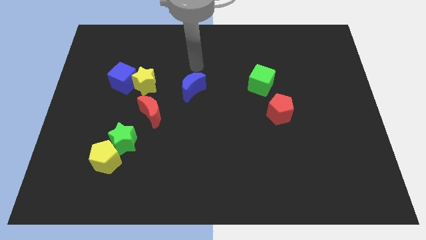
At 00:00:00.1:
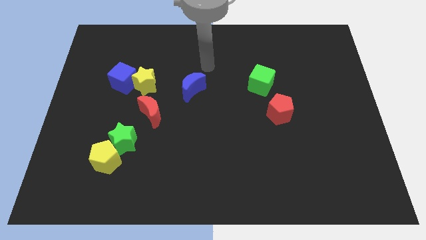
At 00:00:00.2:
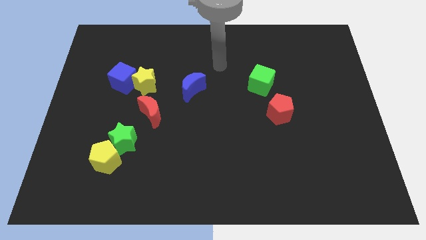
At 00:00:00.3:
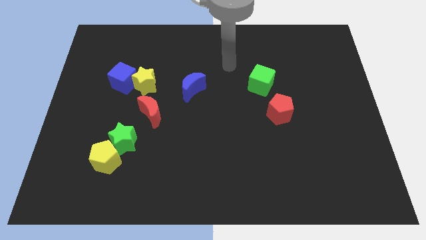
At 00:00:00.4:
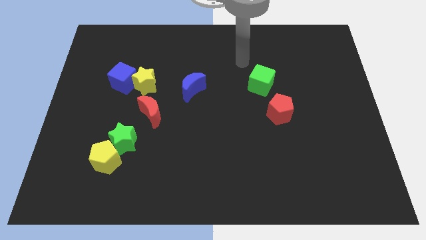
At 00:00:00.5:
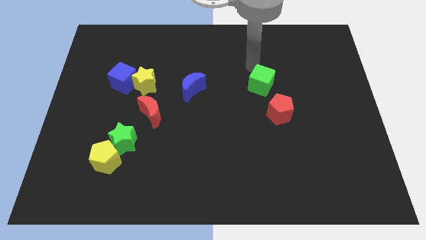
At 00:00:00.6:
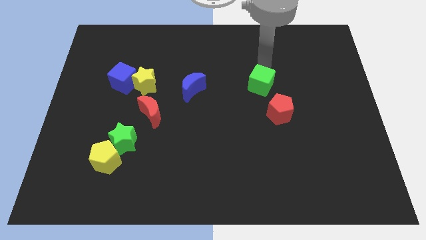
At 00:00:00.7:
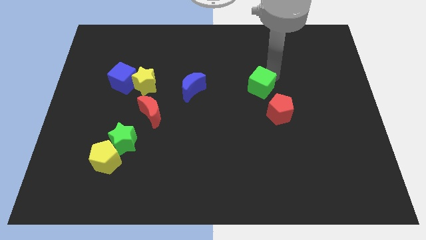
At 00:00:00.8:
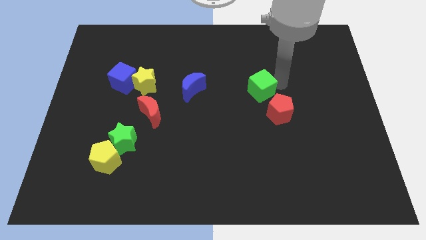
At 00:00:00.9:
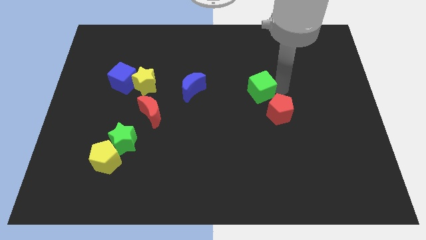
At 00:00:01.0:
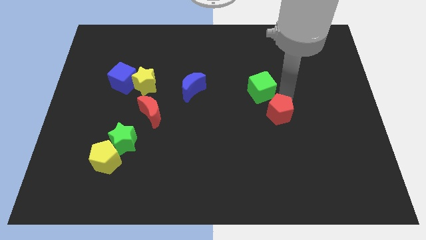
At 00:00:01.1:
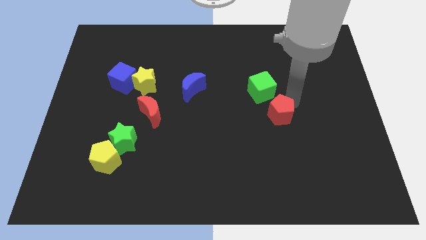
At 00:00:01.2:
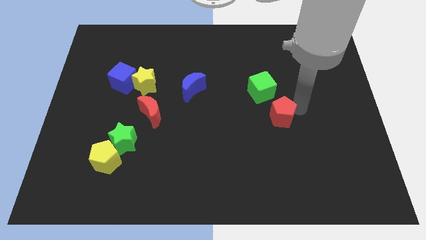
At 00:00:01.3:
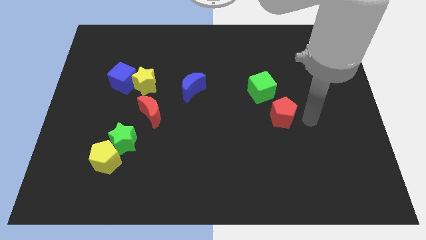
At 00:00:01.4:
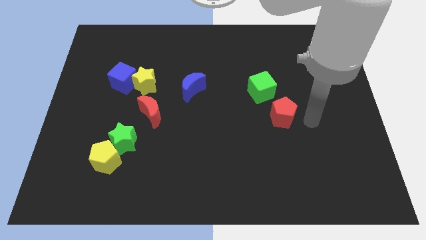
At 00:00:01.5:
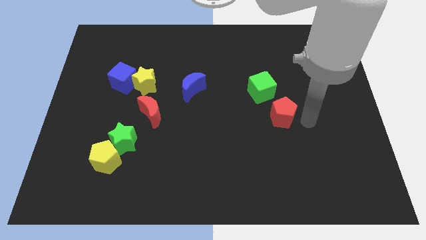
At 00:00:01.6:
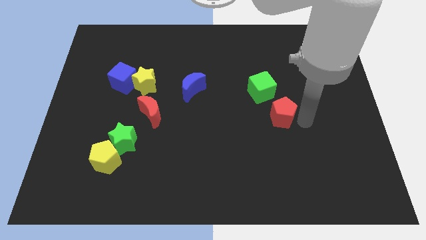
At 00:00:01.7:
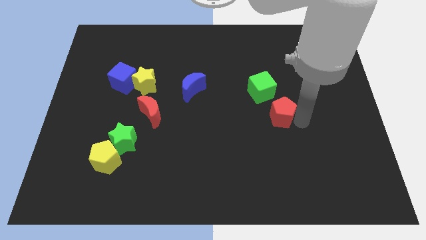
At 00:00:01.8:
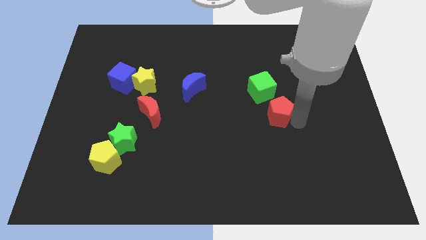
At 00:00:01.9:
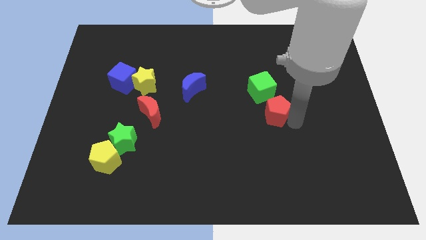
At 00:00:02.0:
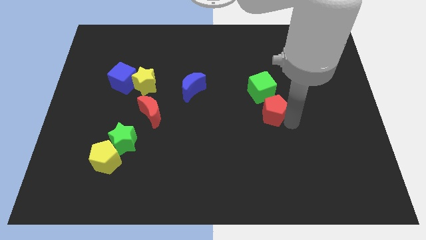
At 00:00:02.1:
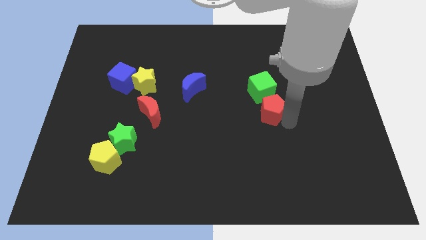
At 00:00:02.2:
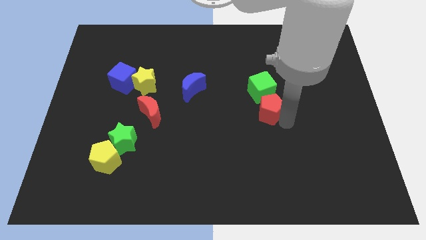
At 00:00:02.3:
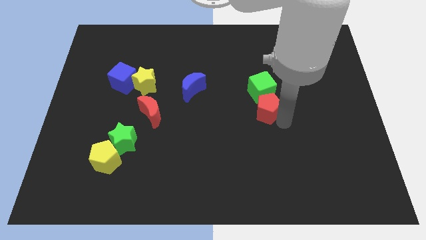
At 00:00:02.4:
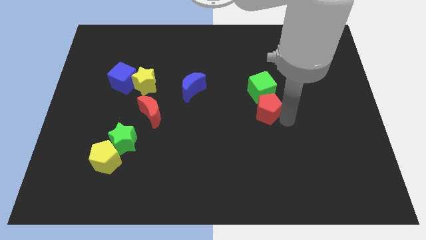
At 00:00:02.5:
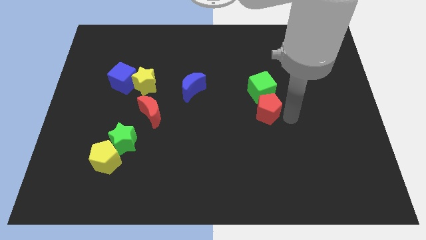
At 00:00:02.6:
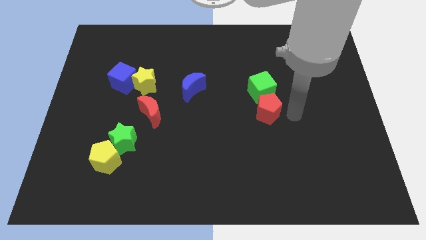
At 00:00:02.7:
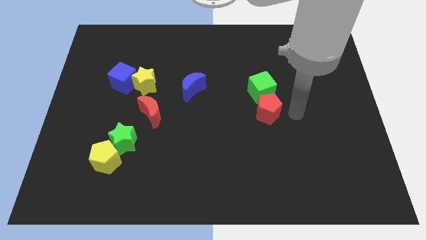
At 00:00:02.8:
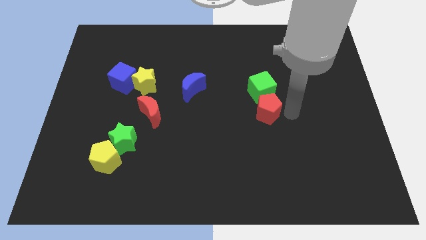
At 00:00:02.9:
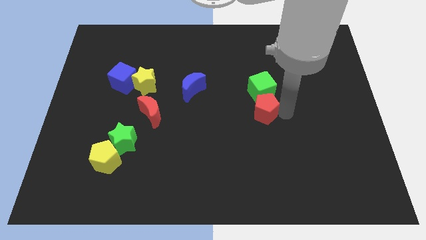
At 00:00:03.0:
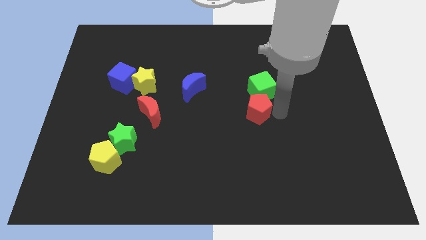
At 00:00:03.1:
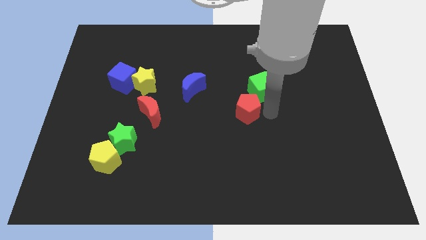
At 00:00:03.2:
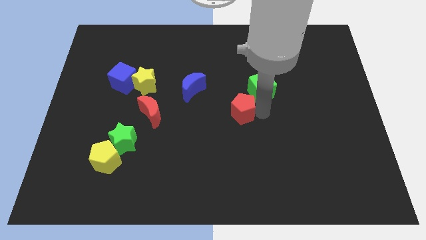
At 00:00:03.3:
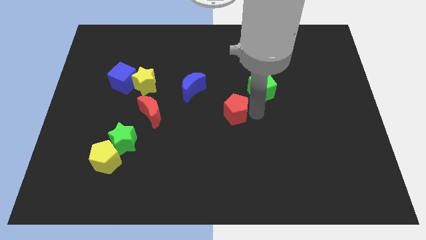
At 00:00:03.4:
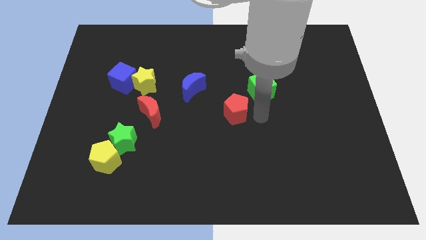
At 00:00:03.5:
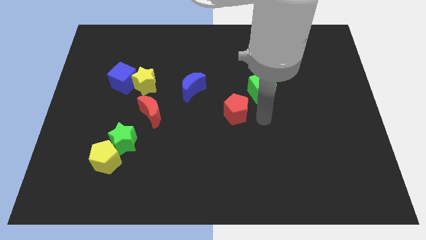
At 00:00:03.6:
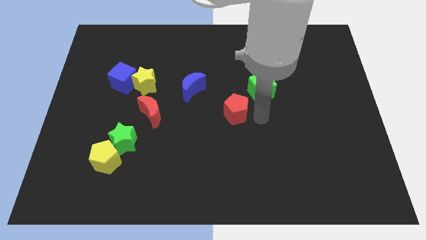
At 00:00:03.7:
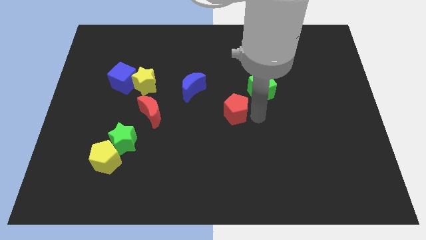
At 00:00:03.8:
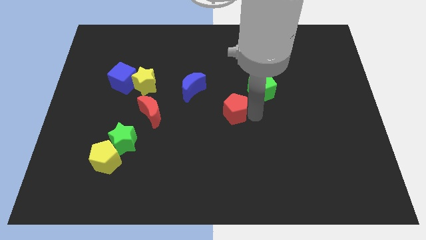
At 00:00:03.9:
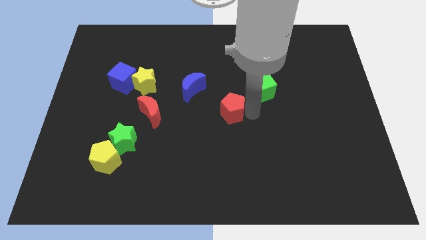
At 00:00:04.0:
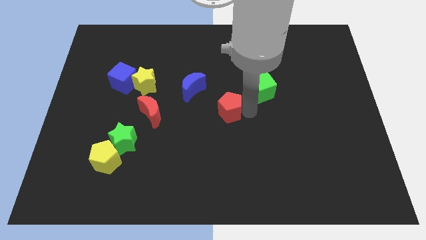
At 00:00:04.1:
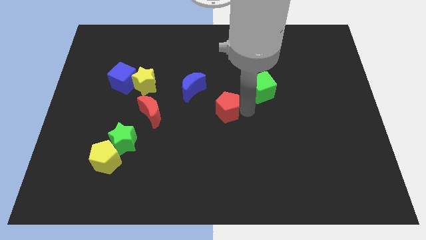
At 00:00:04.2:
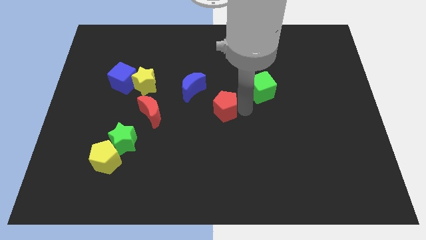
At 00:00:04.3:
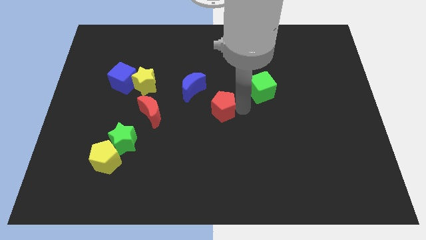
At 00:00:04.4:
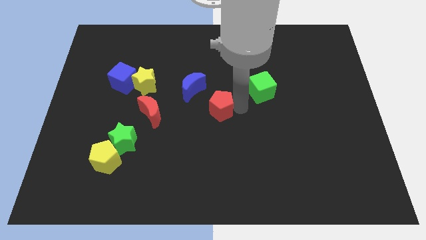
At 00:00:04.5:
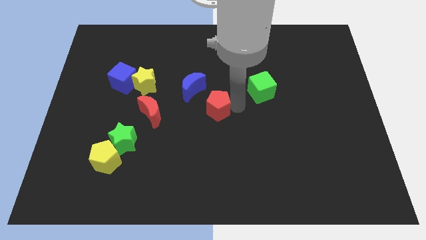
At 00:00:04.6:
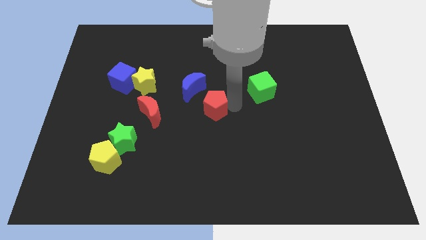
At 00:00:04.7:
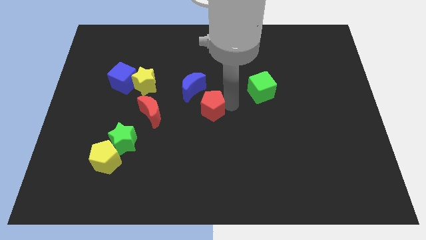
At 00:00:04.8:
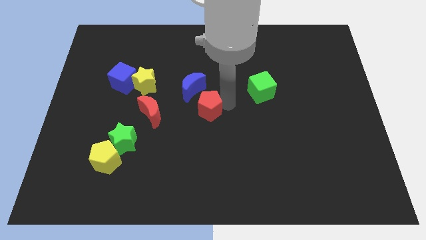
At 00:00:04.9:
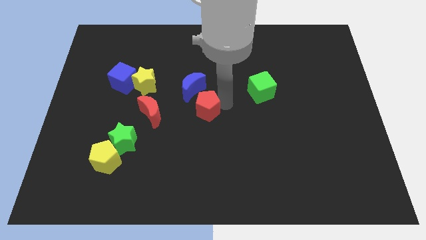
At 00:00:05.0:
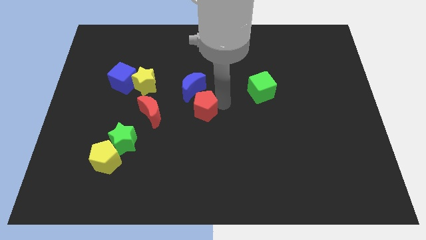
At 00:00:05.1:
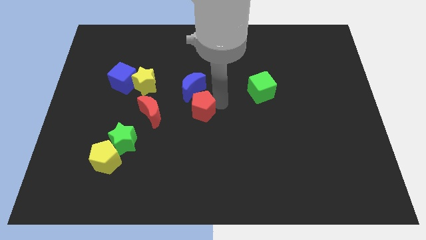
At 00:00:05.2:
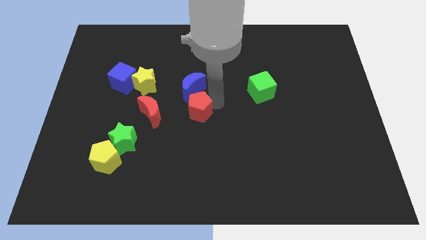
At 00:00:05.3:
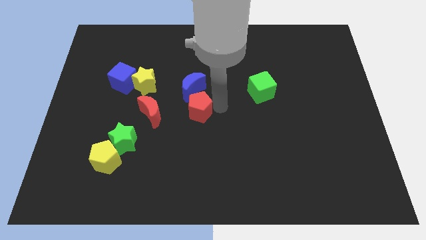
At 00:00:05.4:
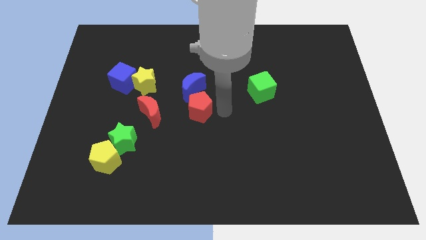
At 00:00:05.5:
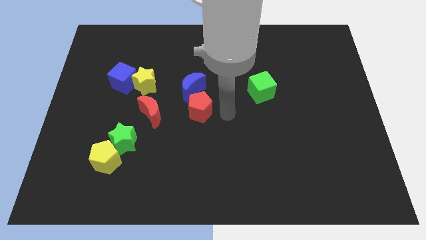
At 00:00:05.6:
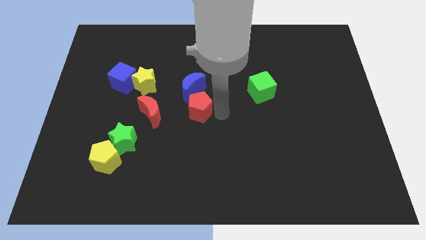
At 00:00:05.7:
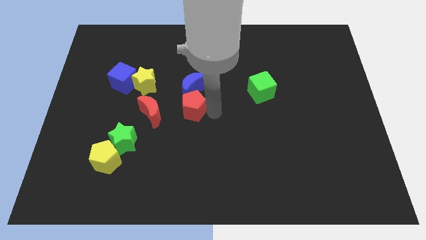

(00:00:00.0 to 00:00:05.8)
move the red pentagon to the bottom left side of the blue moon

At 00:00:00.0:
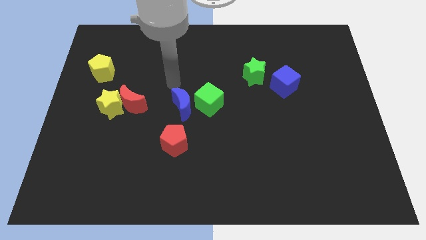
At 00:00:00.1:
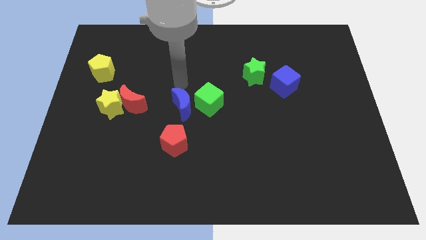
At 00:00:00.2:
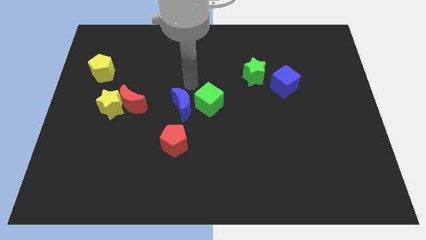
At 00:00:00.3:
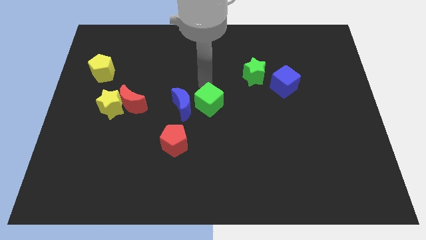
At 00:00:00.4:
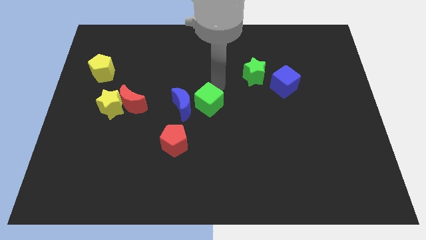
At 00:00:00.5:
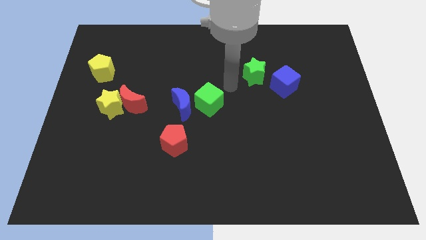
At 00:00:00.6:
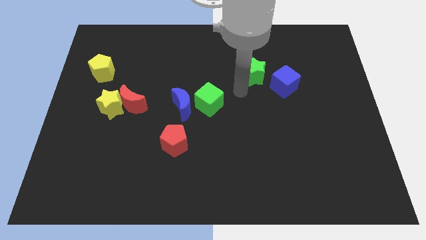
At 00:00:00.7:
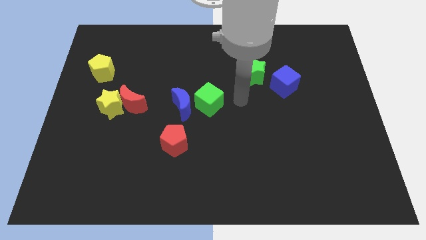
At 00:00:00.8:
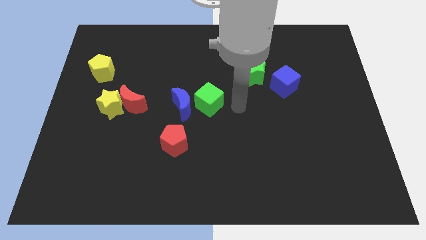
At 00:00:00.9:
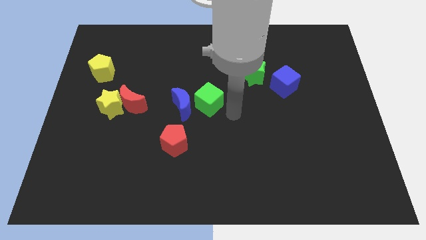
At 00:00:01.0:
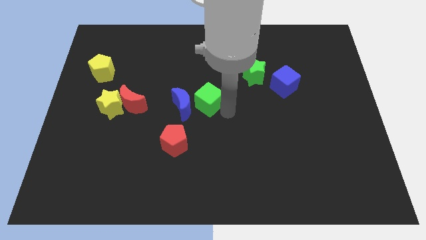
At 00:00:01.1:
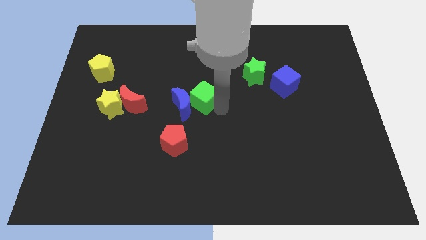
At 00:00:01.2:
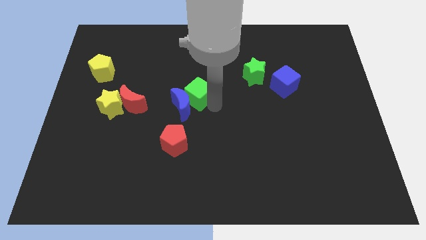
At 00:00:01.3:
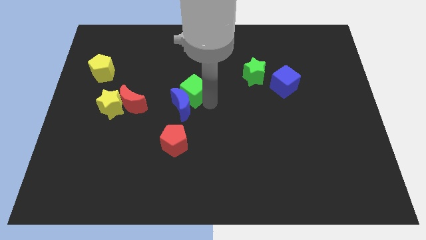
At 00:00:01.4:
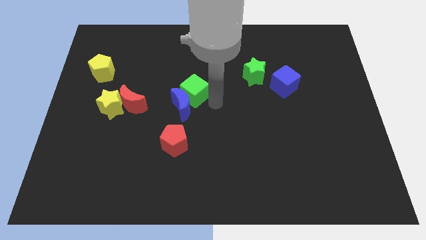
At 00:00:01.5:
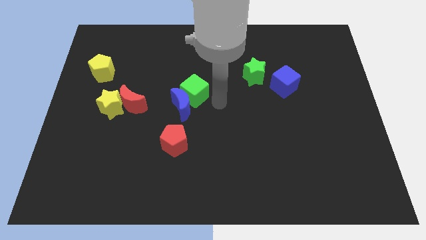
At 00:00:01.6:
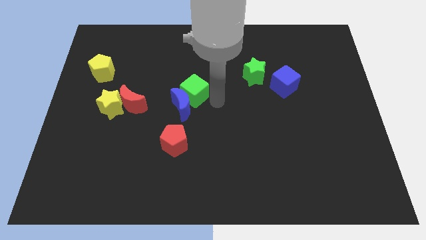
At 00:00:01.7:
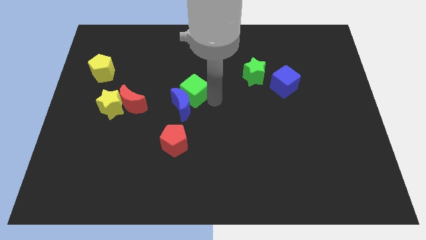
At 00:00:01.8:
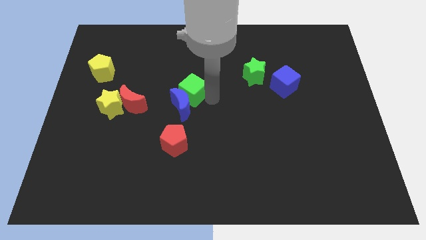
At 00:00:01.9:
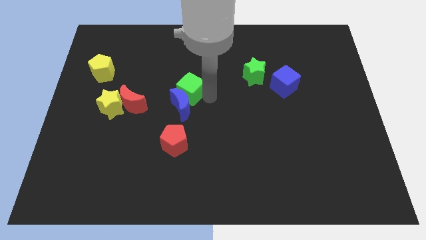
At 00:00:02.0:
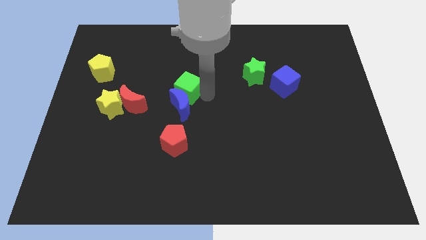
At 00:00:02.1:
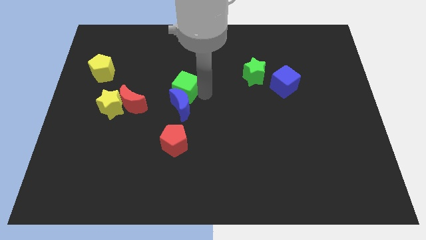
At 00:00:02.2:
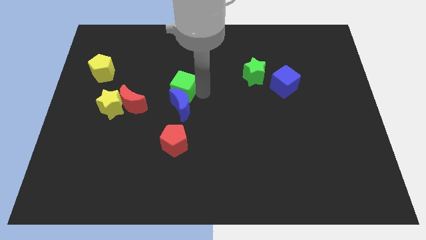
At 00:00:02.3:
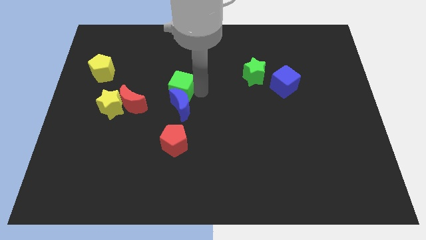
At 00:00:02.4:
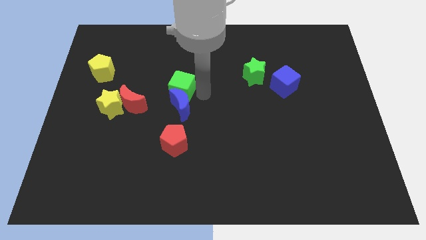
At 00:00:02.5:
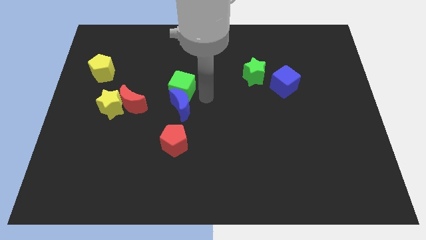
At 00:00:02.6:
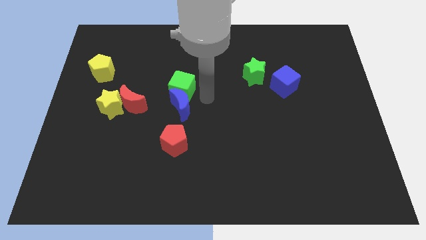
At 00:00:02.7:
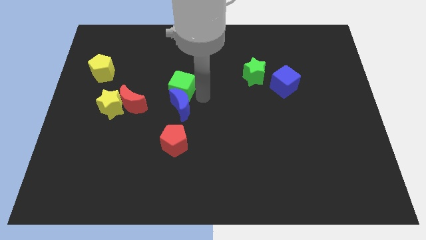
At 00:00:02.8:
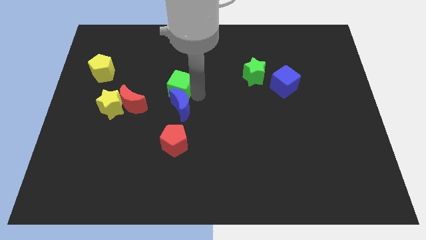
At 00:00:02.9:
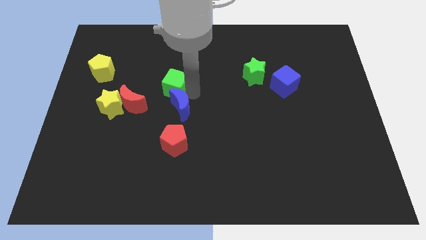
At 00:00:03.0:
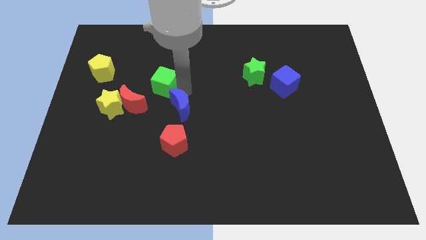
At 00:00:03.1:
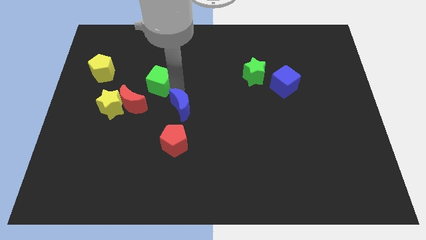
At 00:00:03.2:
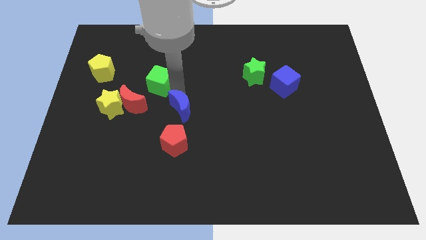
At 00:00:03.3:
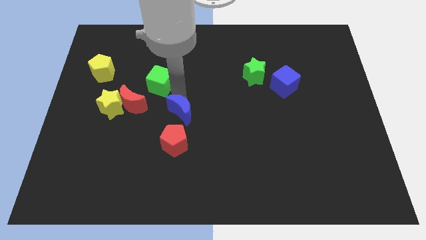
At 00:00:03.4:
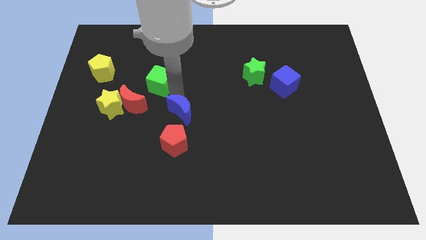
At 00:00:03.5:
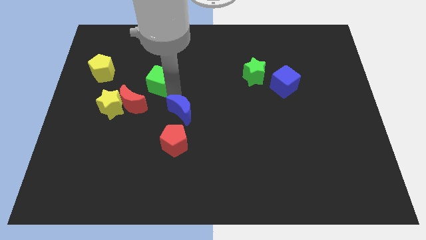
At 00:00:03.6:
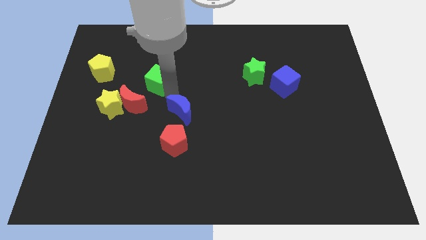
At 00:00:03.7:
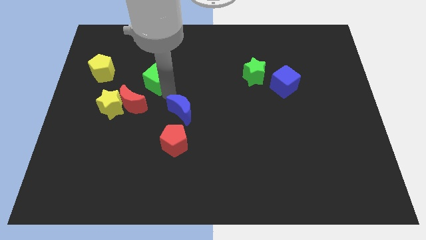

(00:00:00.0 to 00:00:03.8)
put the green cube right of the yellow pentagon
